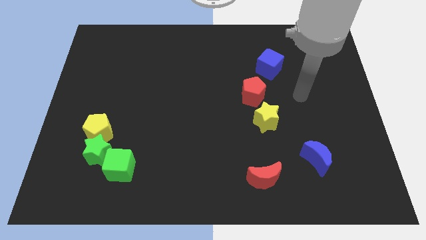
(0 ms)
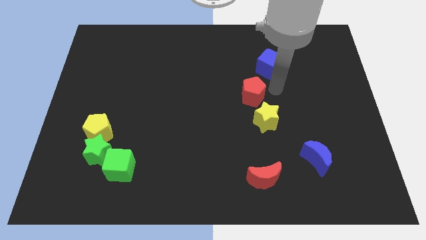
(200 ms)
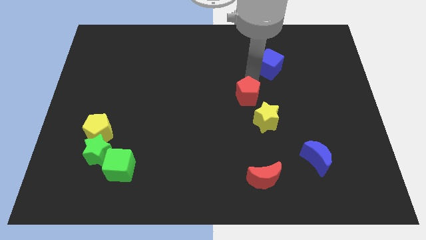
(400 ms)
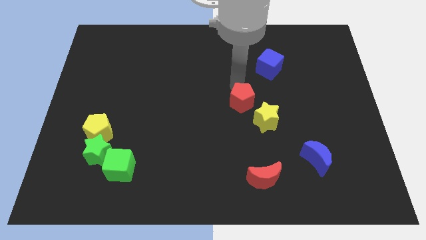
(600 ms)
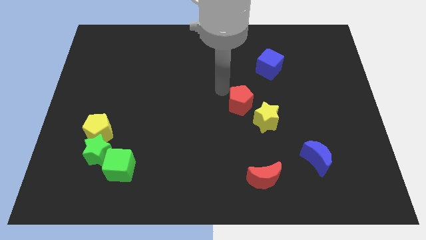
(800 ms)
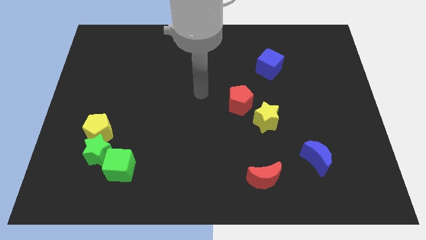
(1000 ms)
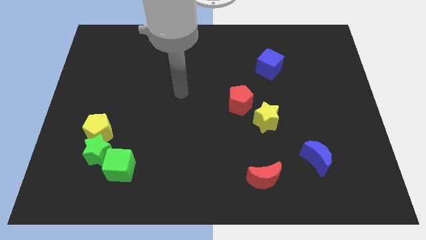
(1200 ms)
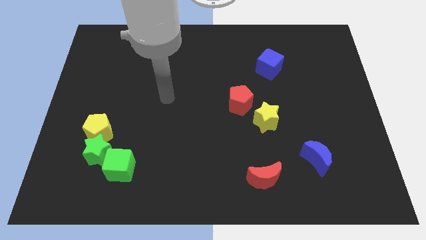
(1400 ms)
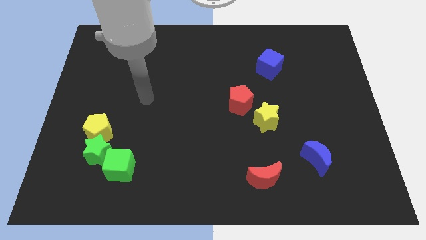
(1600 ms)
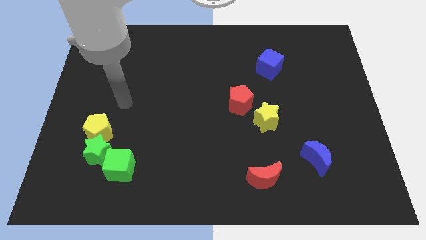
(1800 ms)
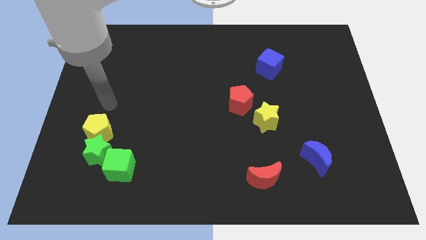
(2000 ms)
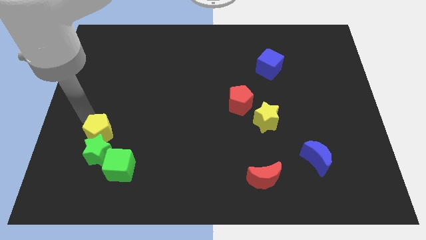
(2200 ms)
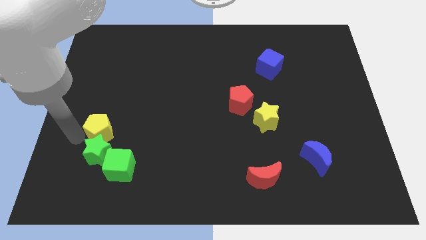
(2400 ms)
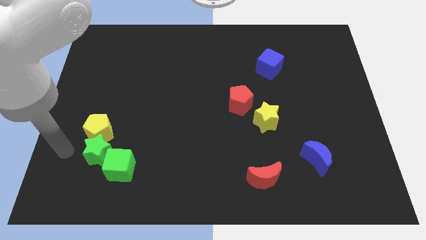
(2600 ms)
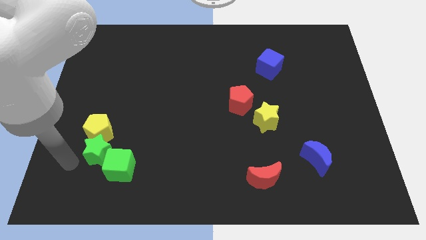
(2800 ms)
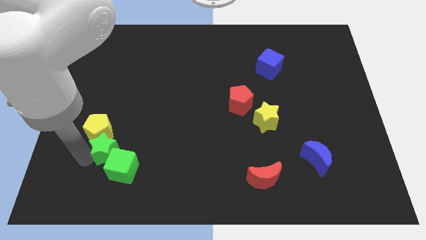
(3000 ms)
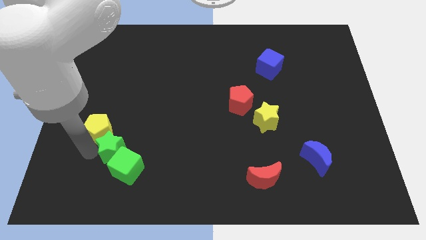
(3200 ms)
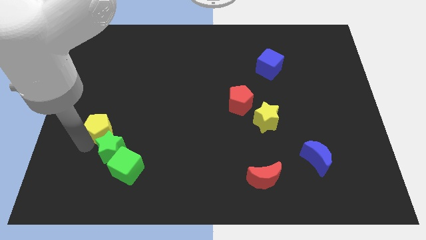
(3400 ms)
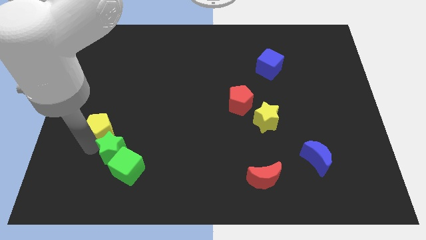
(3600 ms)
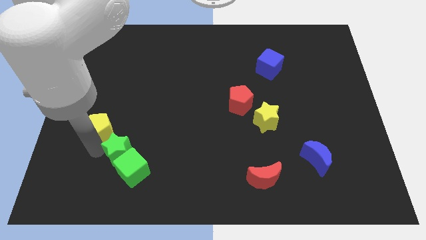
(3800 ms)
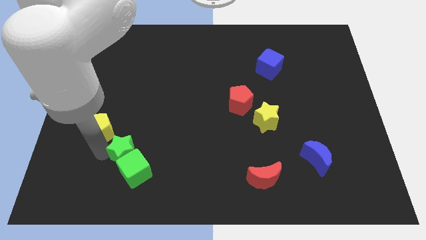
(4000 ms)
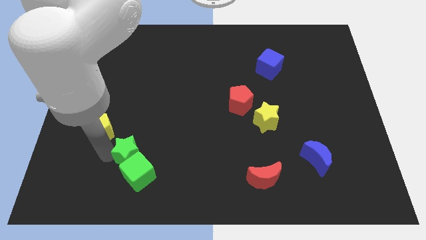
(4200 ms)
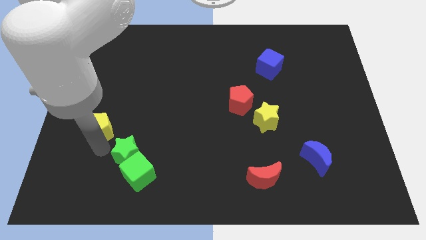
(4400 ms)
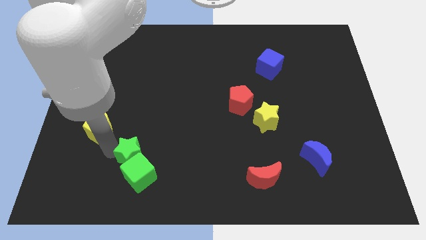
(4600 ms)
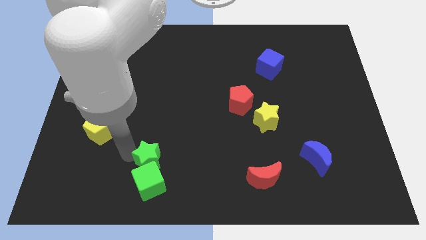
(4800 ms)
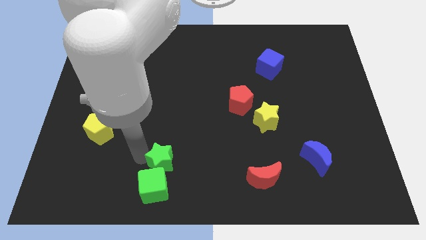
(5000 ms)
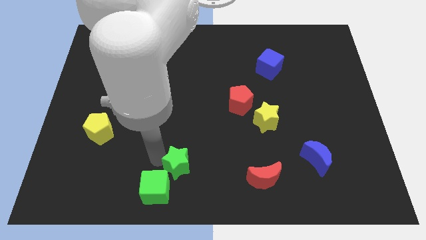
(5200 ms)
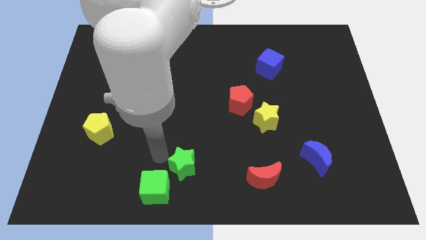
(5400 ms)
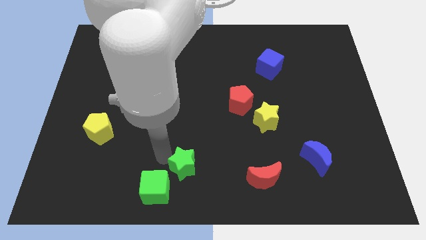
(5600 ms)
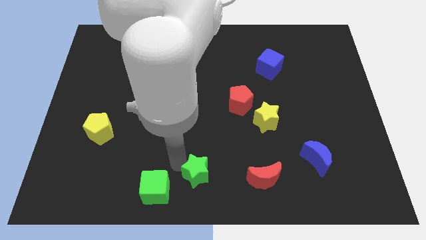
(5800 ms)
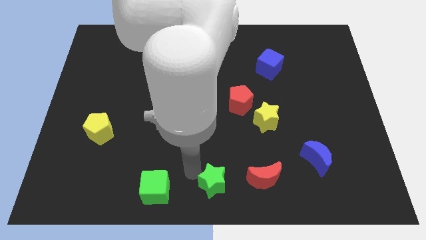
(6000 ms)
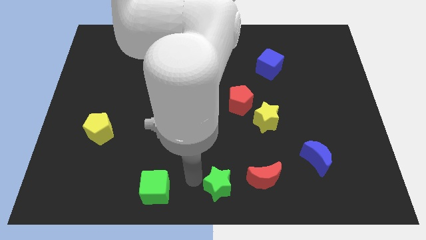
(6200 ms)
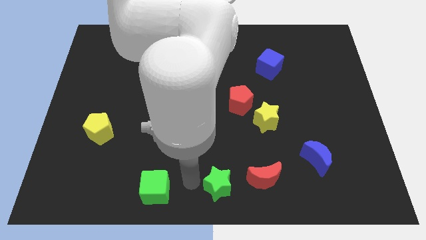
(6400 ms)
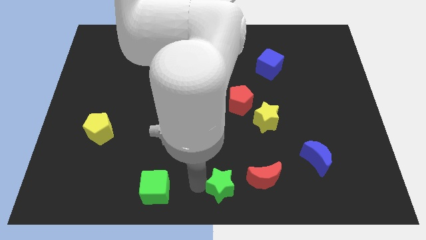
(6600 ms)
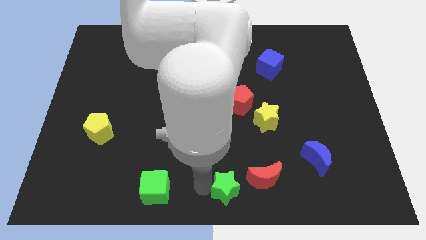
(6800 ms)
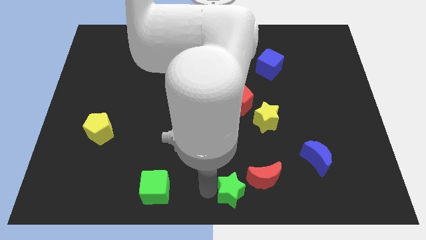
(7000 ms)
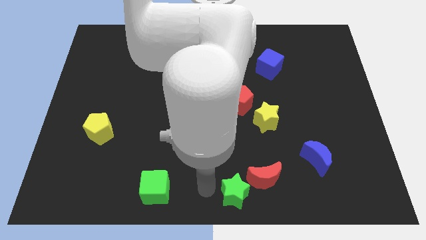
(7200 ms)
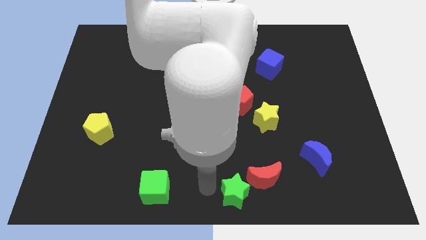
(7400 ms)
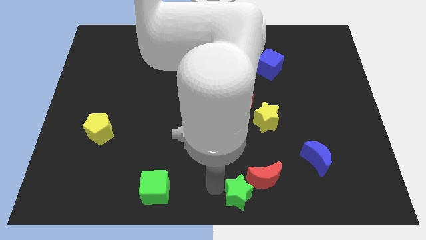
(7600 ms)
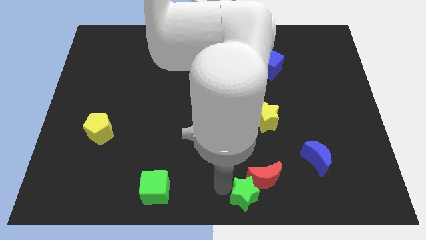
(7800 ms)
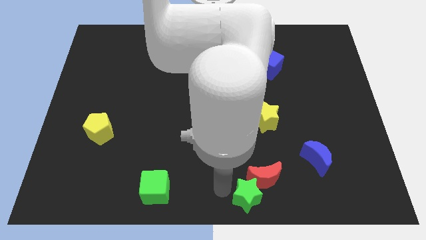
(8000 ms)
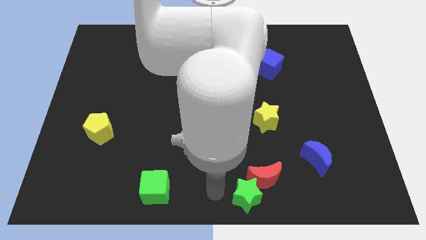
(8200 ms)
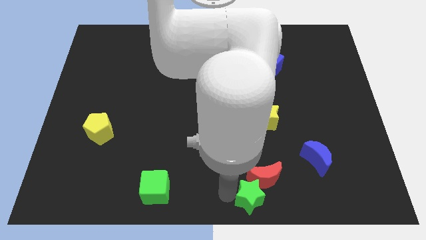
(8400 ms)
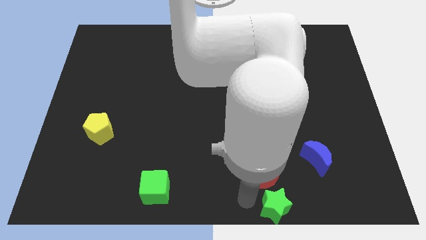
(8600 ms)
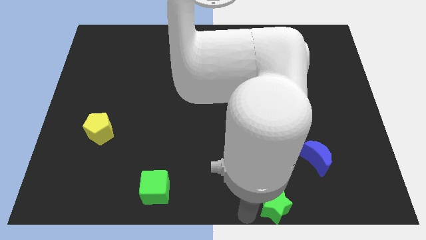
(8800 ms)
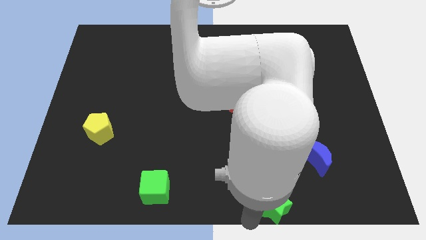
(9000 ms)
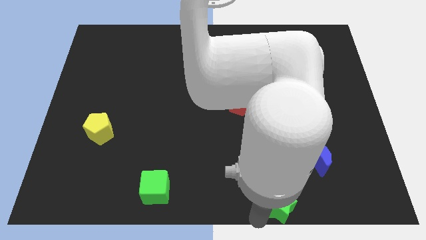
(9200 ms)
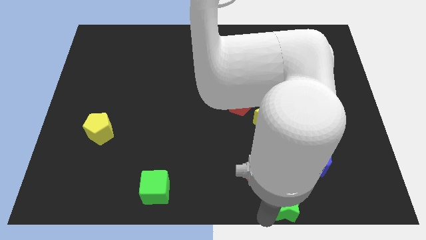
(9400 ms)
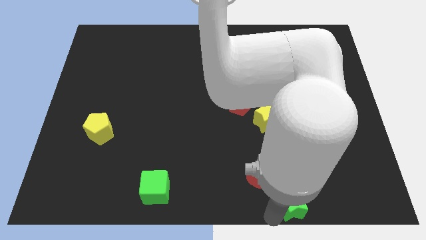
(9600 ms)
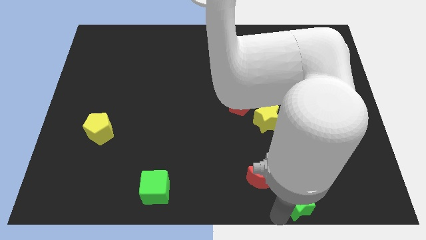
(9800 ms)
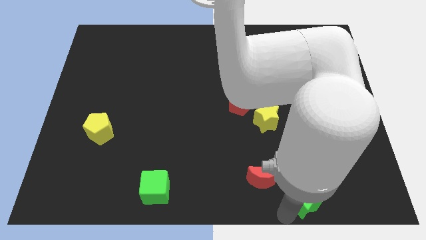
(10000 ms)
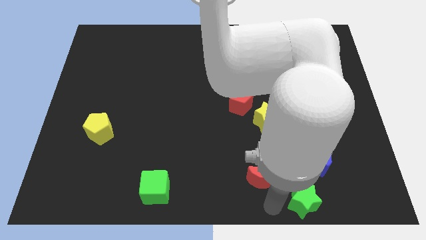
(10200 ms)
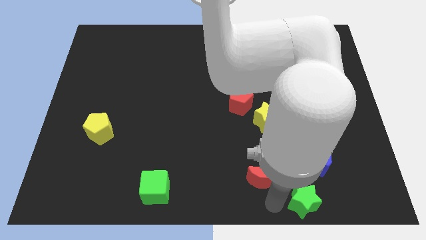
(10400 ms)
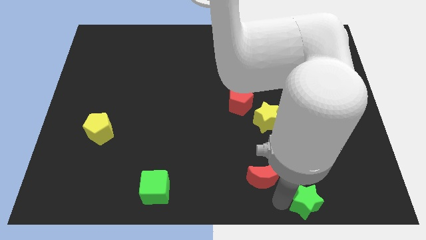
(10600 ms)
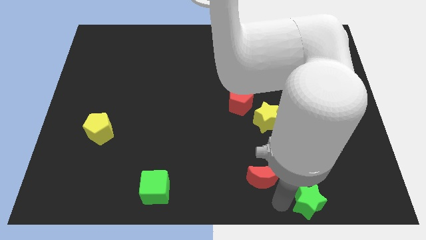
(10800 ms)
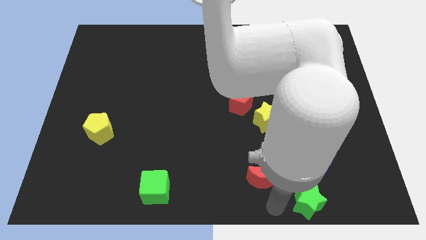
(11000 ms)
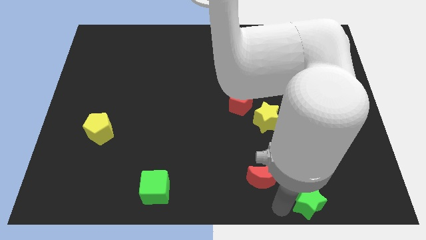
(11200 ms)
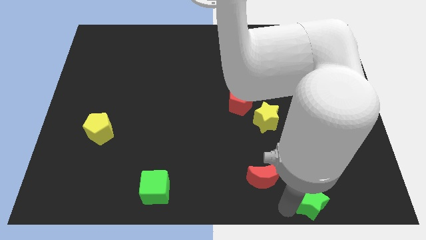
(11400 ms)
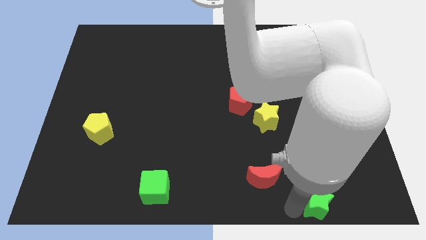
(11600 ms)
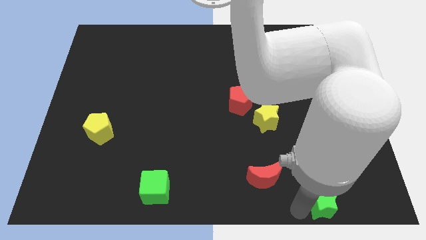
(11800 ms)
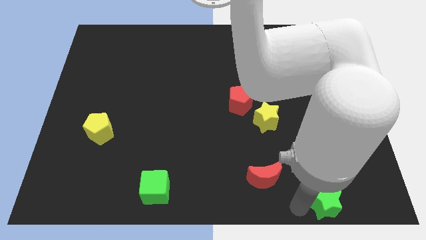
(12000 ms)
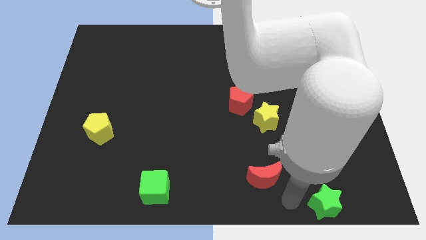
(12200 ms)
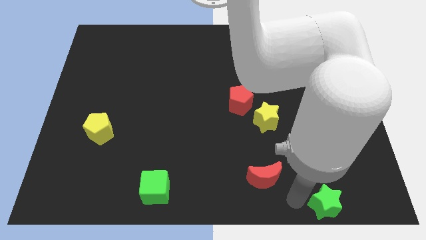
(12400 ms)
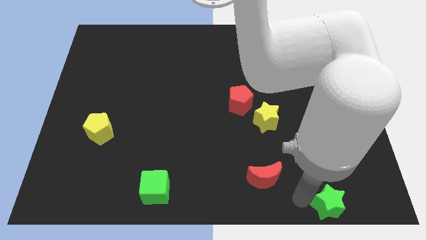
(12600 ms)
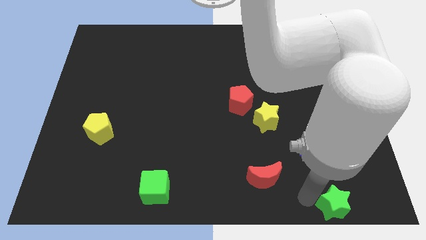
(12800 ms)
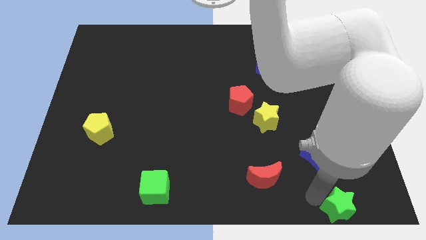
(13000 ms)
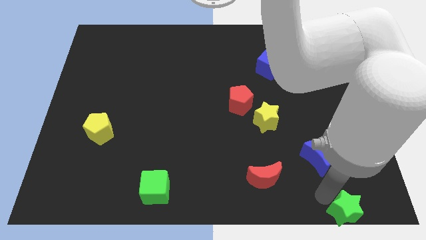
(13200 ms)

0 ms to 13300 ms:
put the green star to the bottom right of the board
